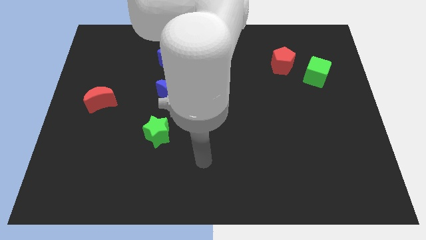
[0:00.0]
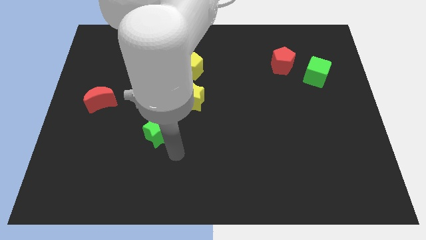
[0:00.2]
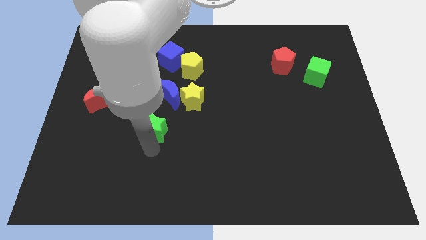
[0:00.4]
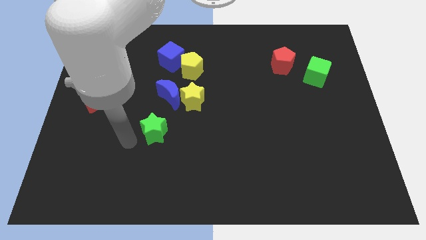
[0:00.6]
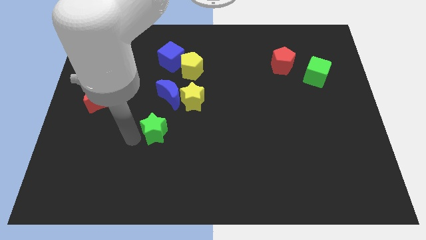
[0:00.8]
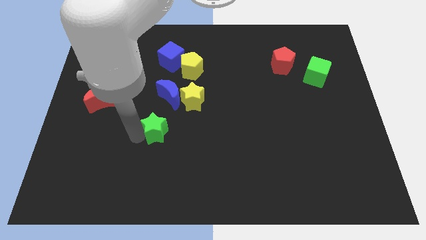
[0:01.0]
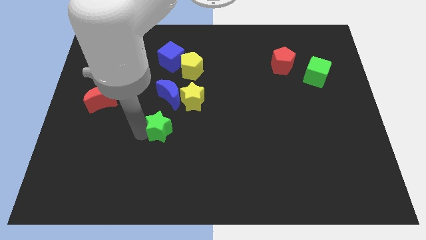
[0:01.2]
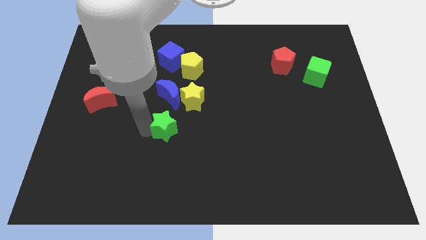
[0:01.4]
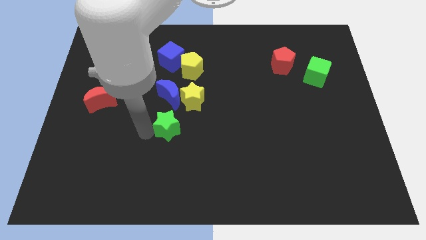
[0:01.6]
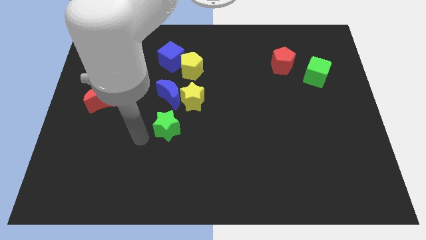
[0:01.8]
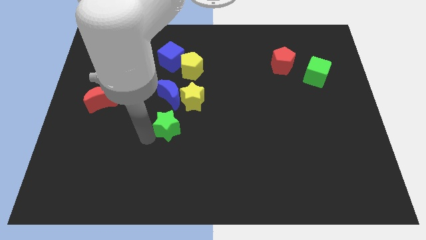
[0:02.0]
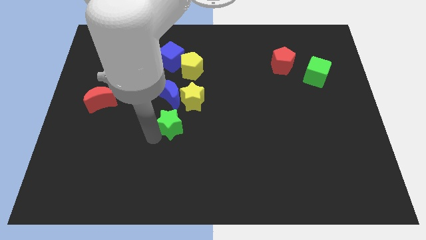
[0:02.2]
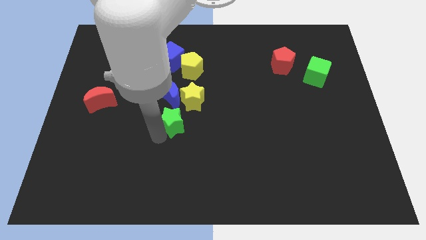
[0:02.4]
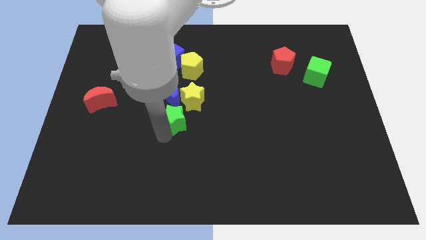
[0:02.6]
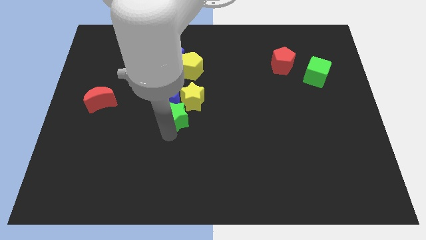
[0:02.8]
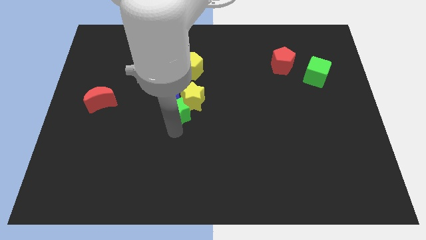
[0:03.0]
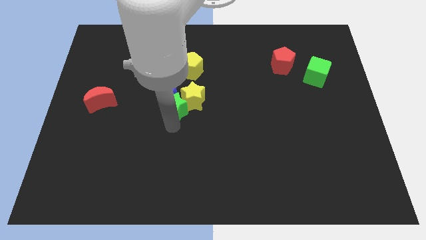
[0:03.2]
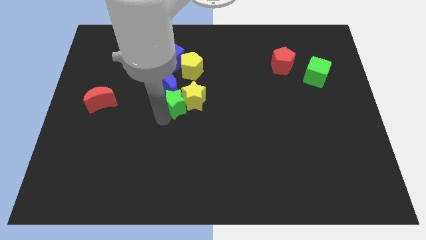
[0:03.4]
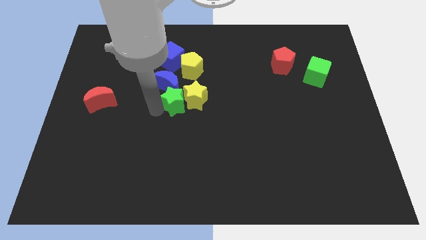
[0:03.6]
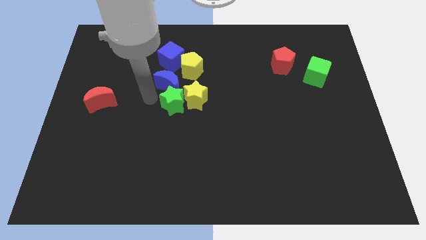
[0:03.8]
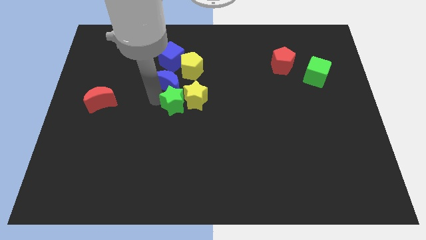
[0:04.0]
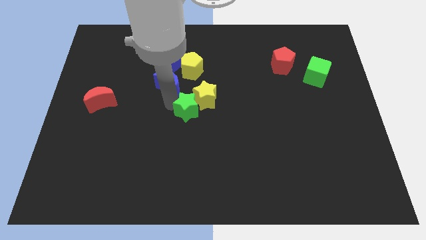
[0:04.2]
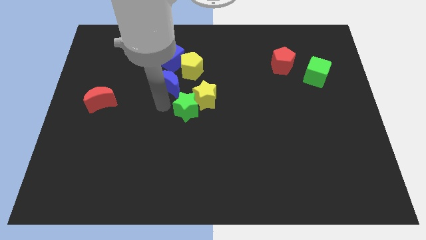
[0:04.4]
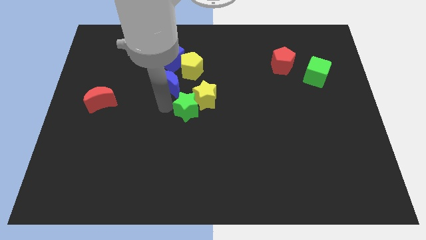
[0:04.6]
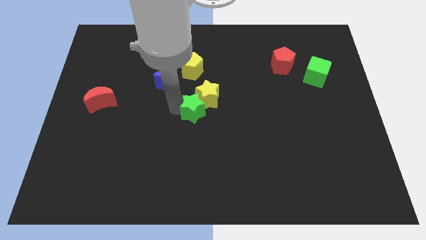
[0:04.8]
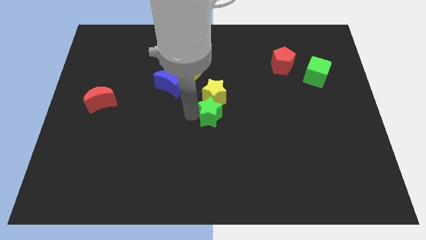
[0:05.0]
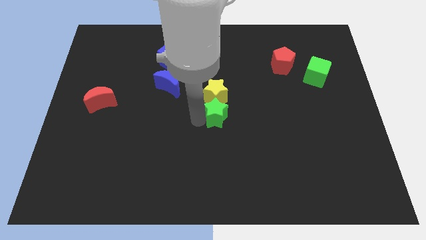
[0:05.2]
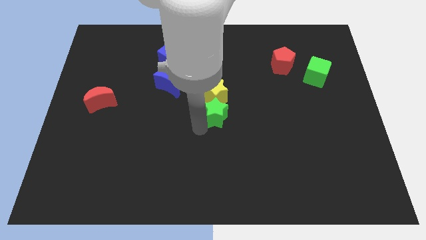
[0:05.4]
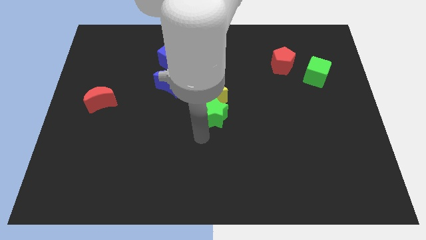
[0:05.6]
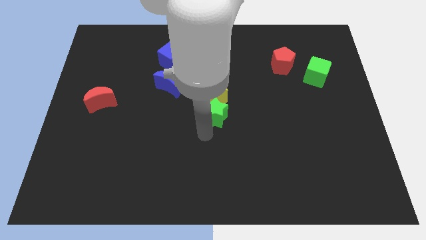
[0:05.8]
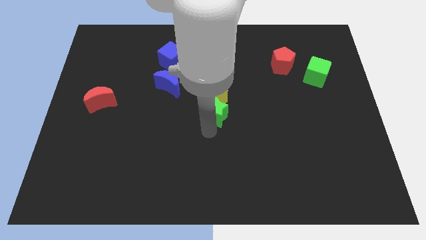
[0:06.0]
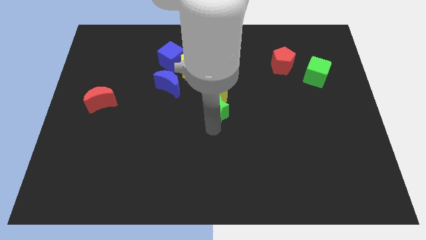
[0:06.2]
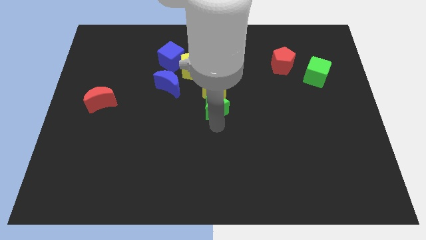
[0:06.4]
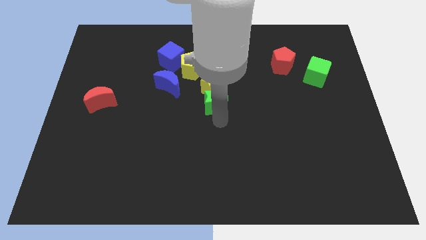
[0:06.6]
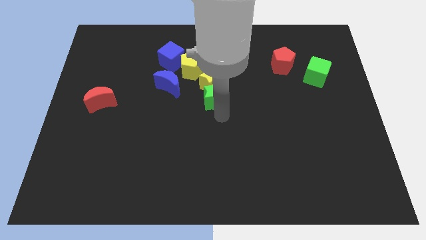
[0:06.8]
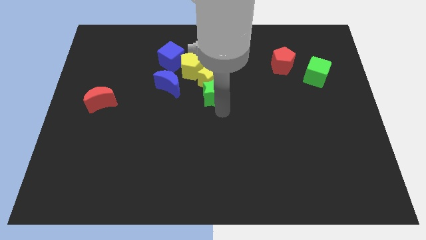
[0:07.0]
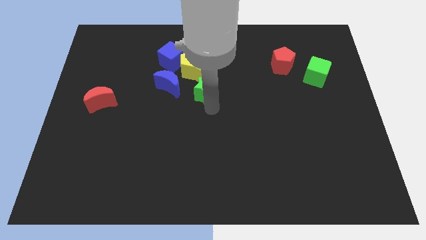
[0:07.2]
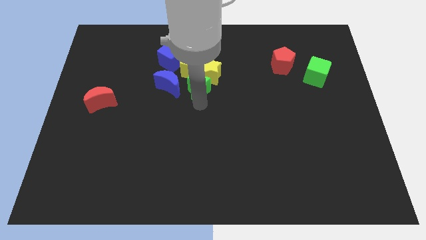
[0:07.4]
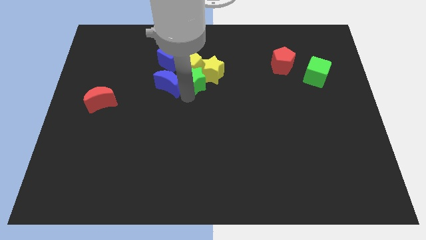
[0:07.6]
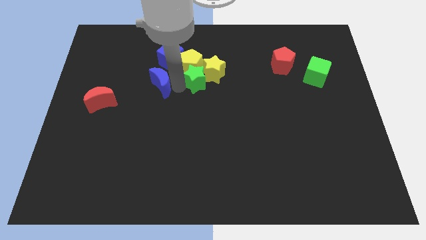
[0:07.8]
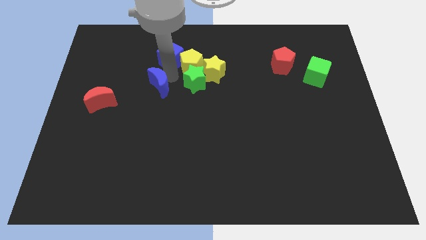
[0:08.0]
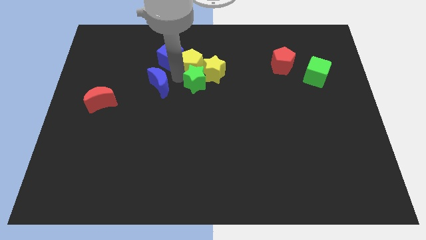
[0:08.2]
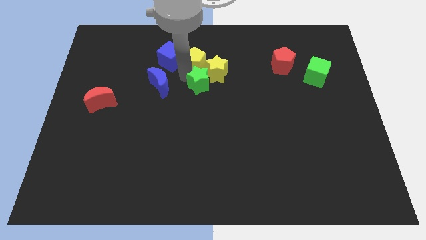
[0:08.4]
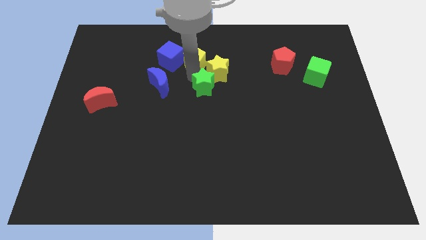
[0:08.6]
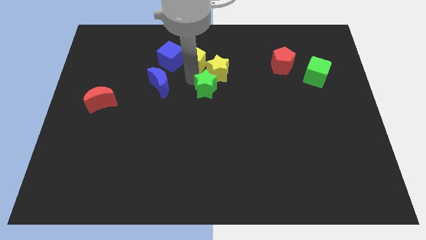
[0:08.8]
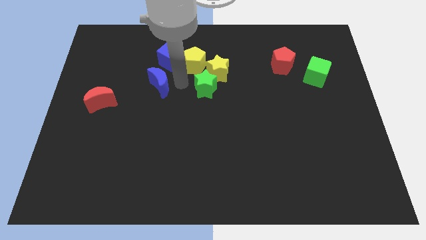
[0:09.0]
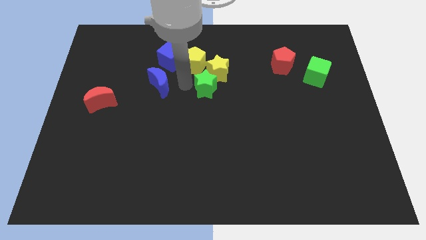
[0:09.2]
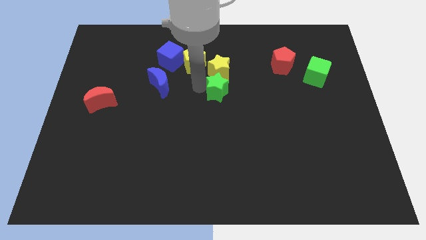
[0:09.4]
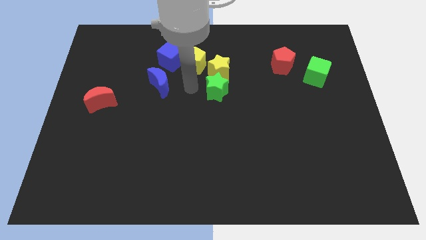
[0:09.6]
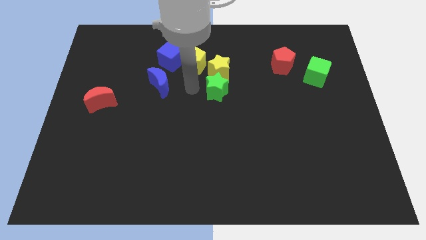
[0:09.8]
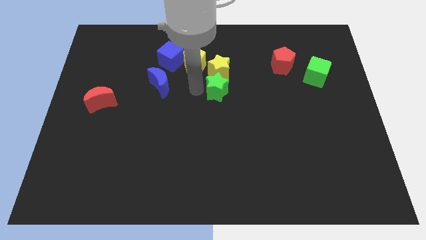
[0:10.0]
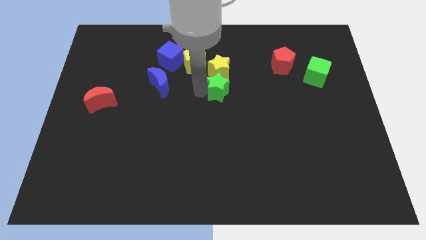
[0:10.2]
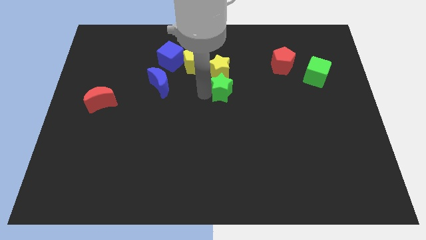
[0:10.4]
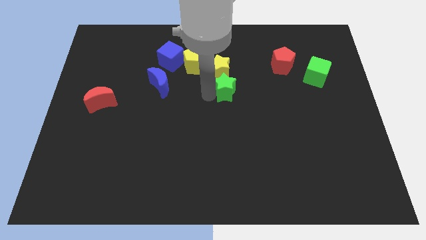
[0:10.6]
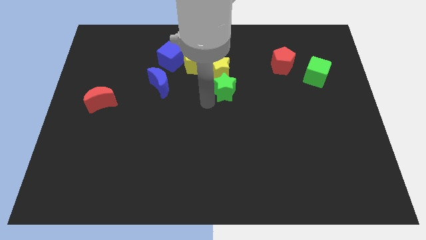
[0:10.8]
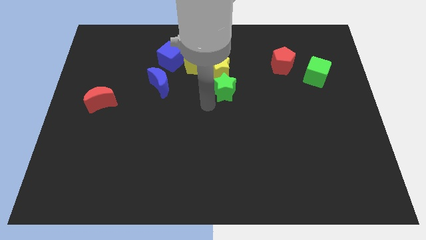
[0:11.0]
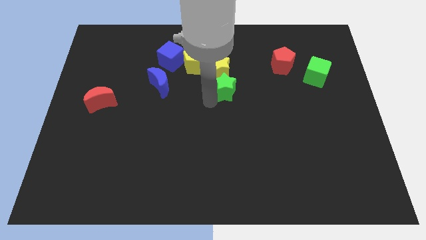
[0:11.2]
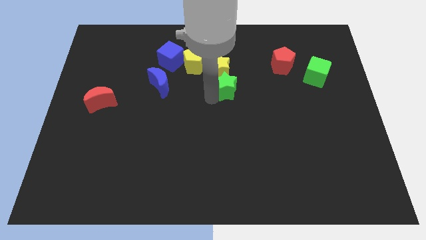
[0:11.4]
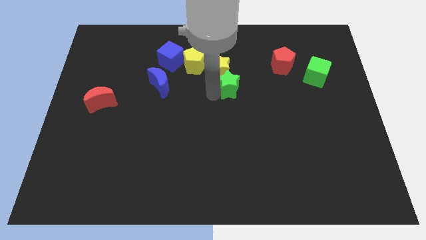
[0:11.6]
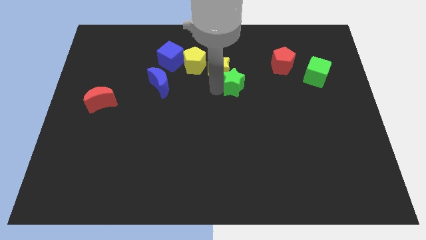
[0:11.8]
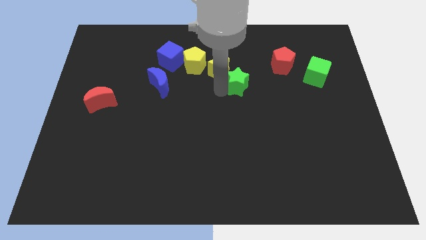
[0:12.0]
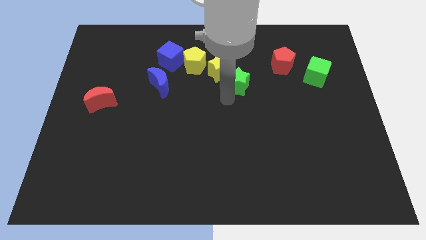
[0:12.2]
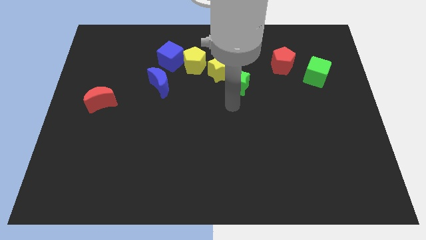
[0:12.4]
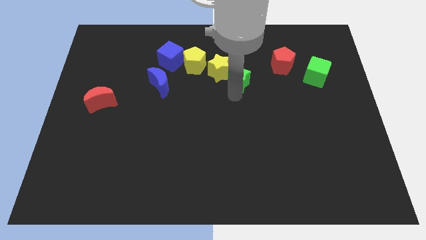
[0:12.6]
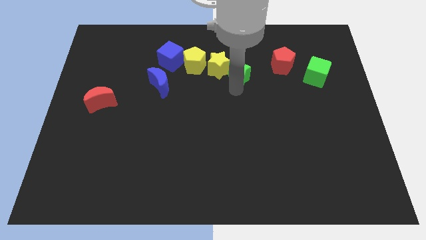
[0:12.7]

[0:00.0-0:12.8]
push the green star to the left of the red pentagon

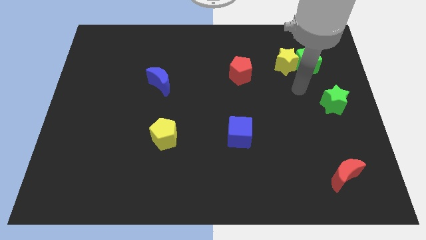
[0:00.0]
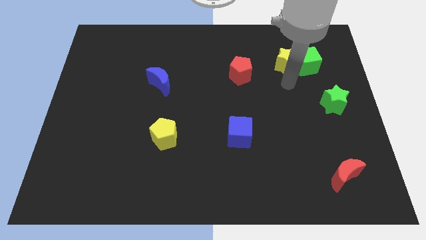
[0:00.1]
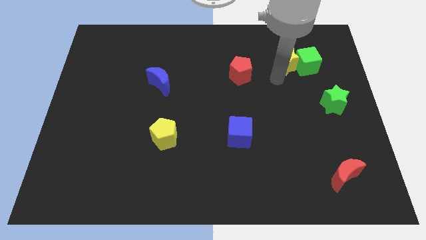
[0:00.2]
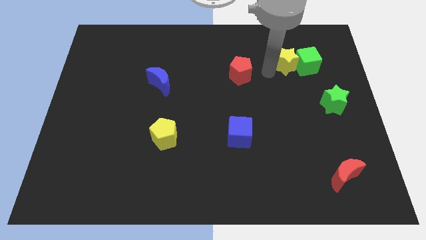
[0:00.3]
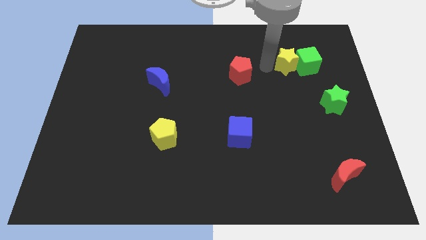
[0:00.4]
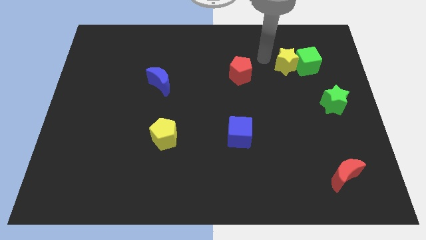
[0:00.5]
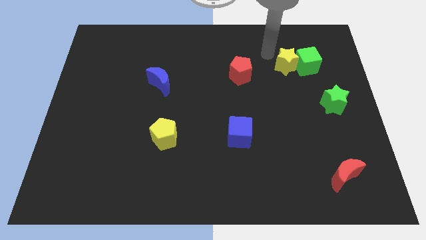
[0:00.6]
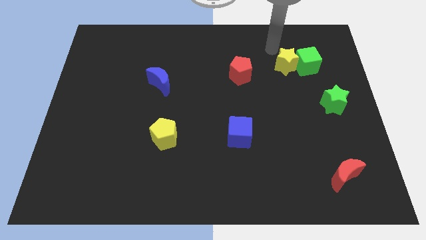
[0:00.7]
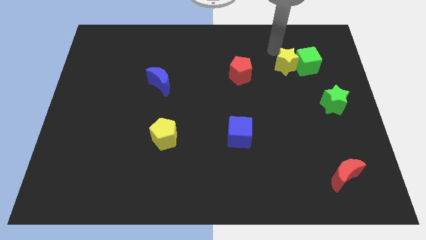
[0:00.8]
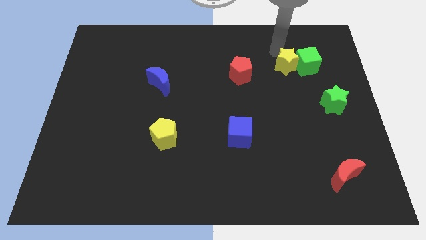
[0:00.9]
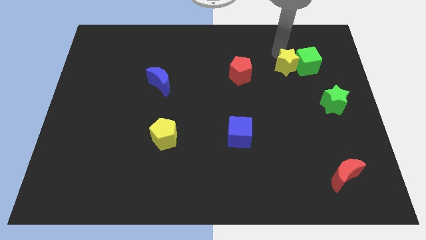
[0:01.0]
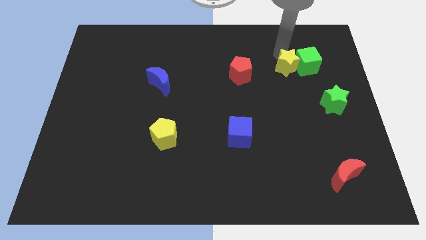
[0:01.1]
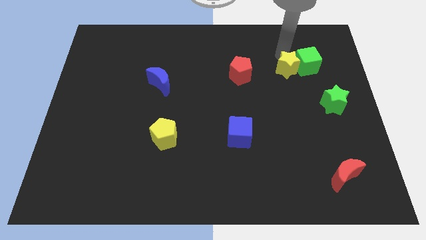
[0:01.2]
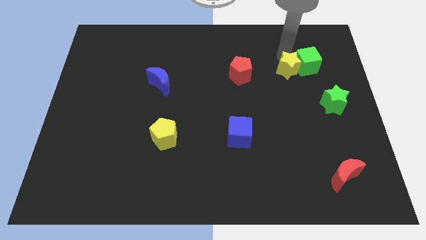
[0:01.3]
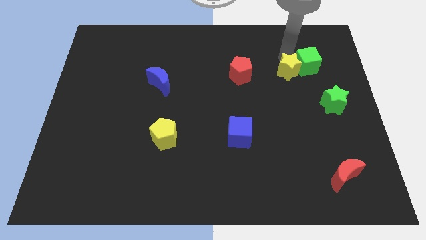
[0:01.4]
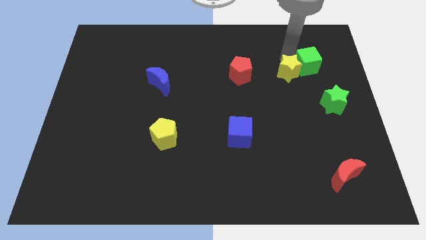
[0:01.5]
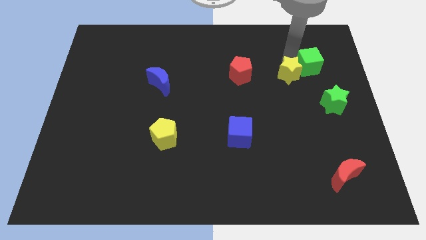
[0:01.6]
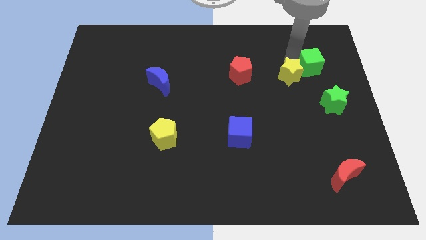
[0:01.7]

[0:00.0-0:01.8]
put the yellow star diagonally up and to the left of the green star
